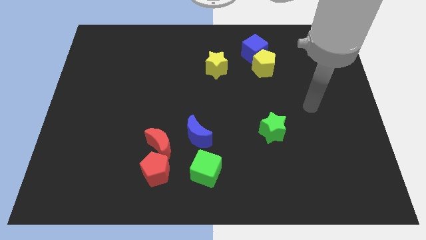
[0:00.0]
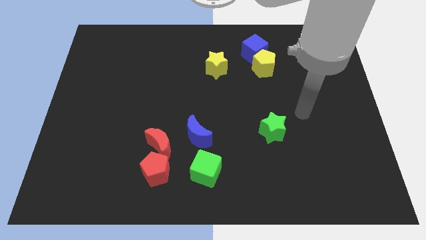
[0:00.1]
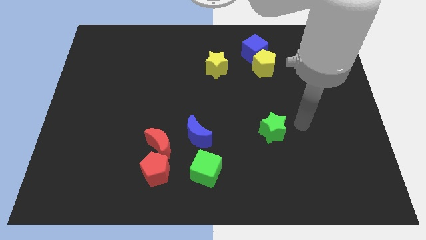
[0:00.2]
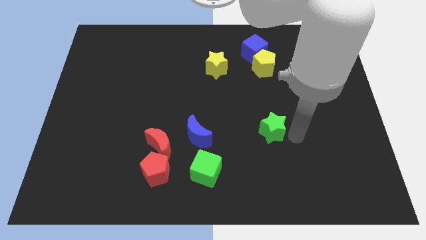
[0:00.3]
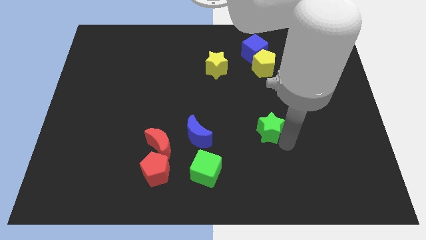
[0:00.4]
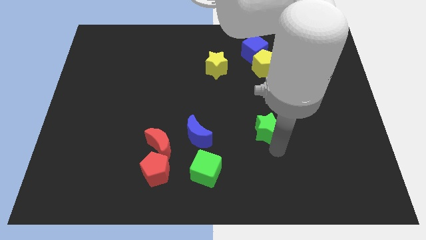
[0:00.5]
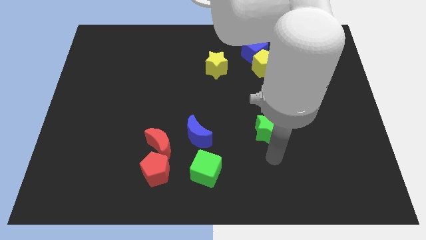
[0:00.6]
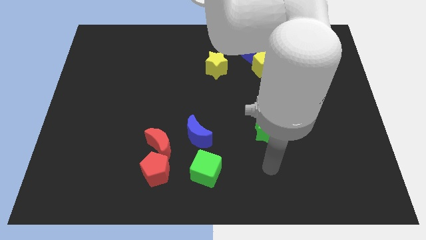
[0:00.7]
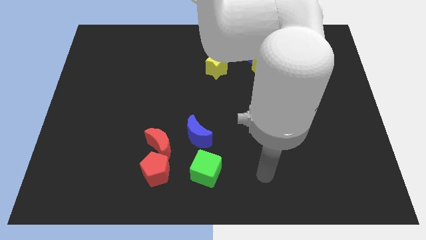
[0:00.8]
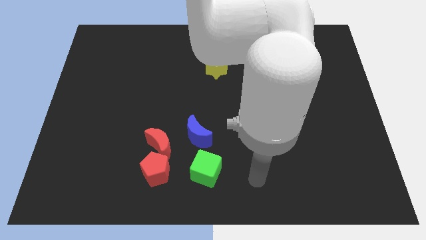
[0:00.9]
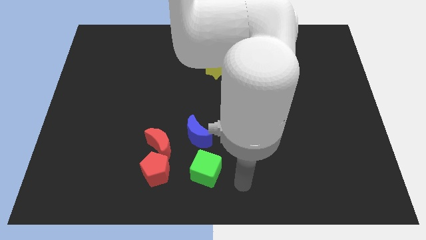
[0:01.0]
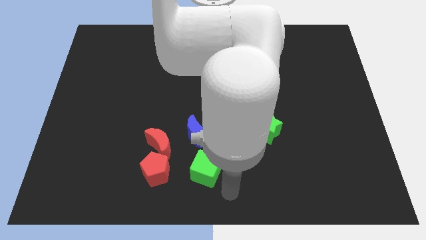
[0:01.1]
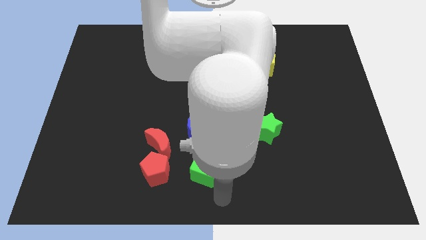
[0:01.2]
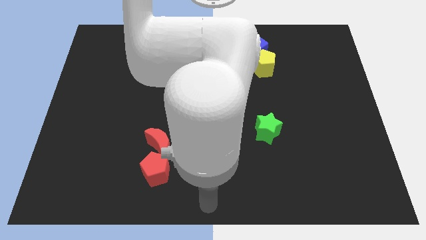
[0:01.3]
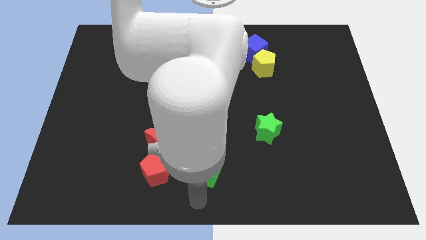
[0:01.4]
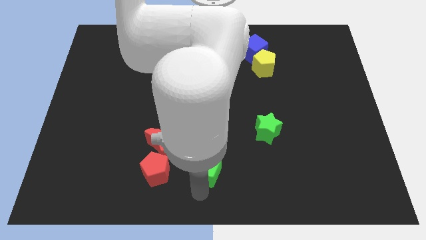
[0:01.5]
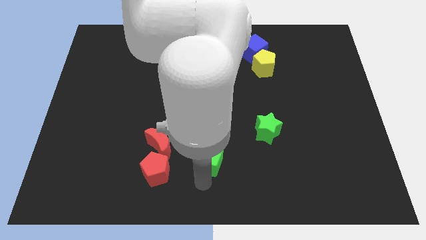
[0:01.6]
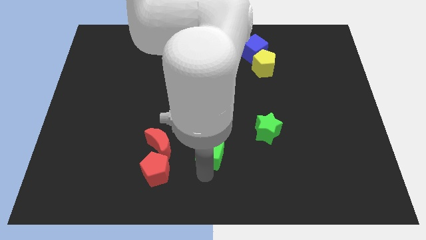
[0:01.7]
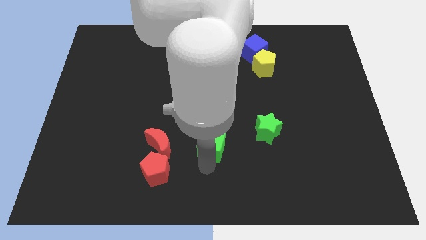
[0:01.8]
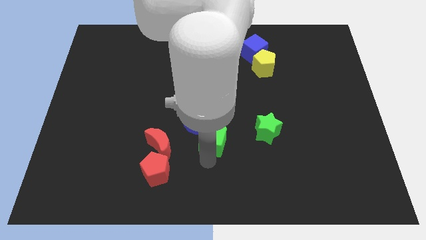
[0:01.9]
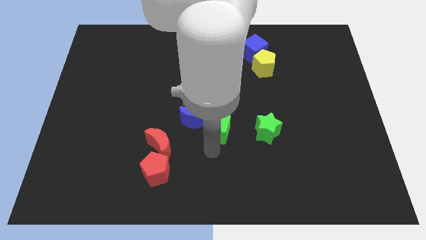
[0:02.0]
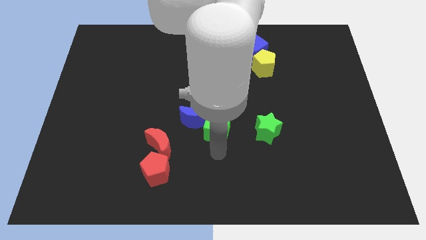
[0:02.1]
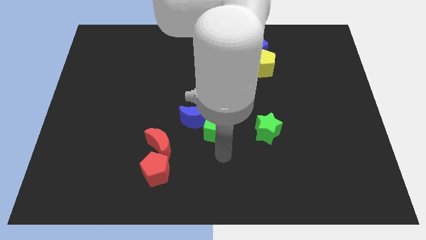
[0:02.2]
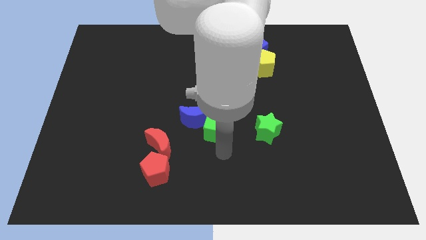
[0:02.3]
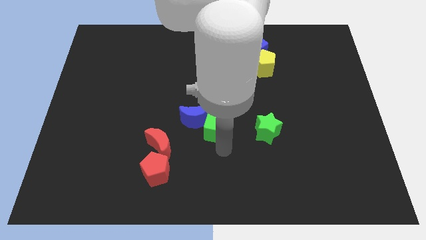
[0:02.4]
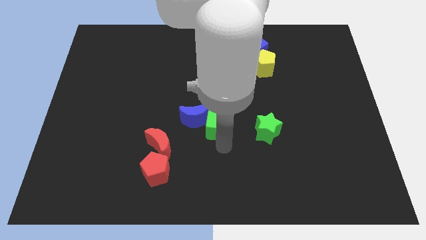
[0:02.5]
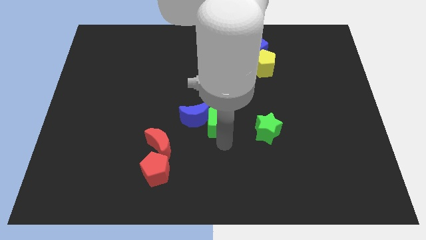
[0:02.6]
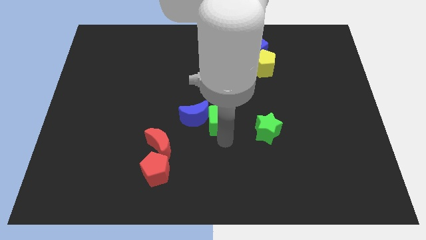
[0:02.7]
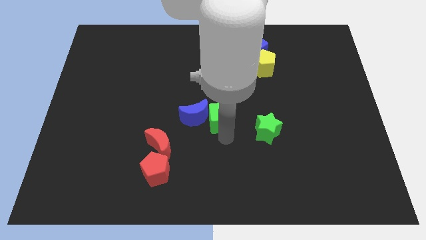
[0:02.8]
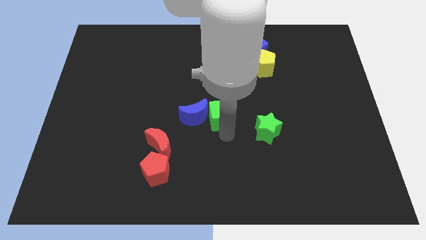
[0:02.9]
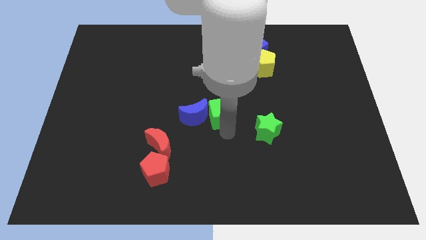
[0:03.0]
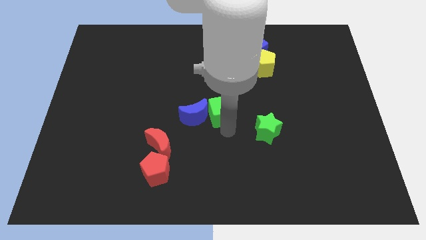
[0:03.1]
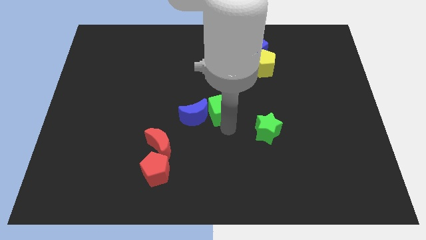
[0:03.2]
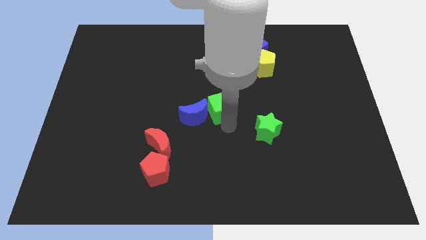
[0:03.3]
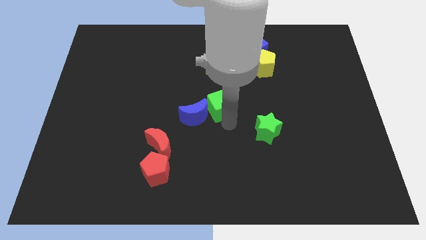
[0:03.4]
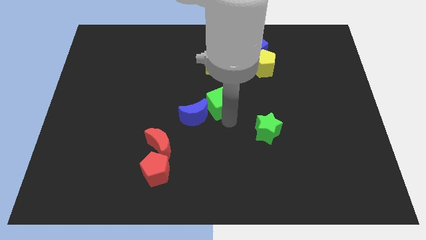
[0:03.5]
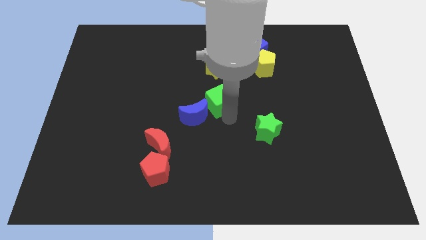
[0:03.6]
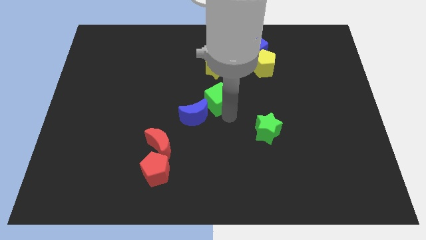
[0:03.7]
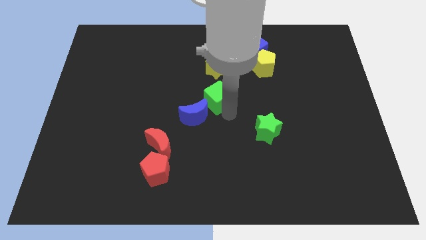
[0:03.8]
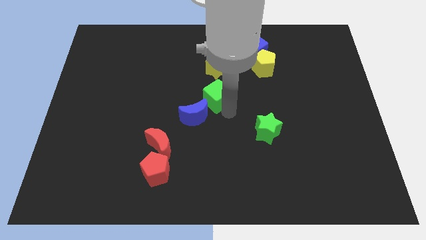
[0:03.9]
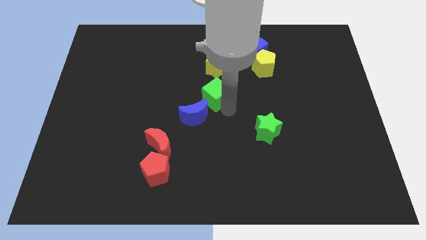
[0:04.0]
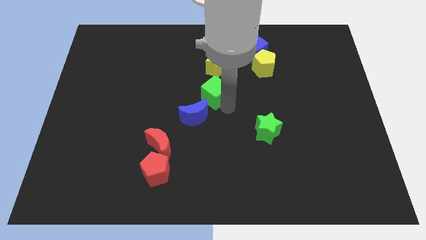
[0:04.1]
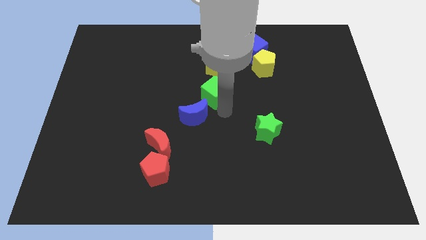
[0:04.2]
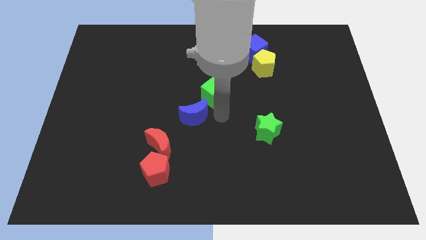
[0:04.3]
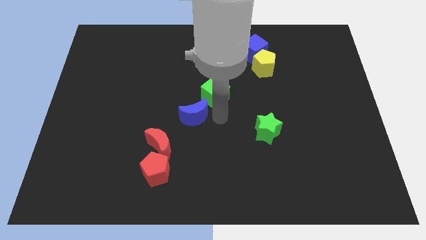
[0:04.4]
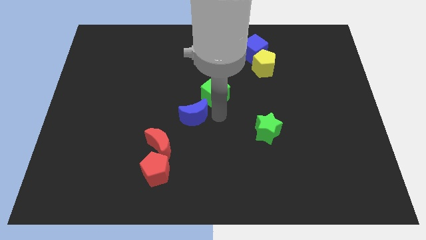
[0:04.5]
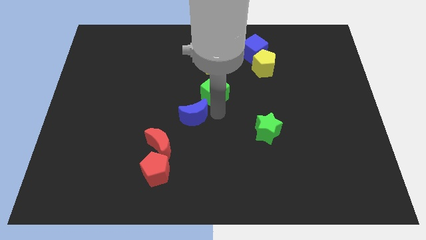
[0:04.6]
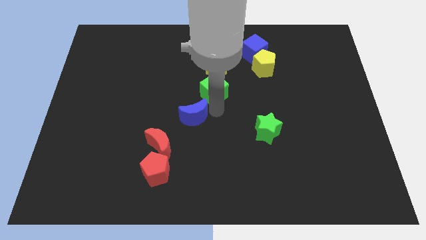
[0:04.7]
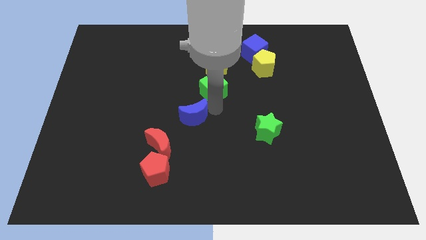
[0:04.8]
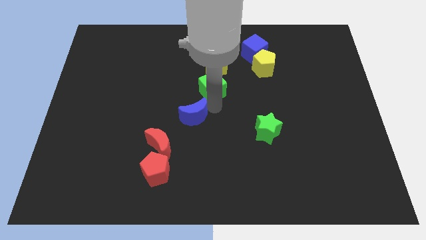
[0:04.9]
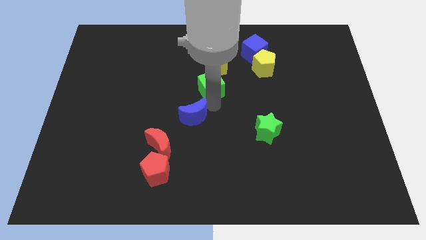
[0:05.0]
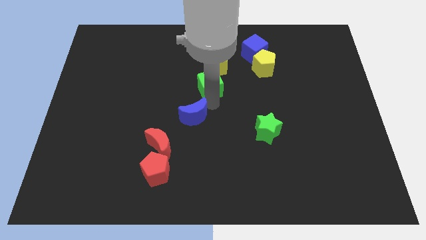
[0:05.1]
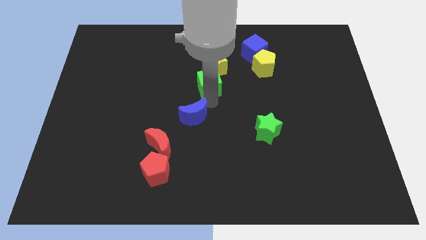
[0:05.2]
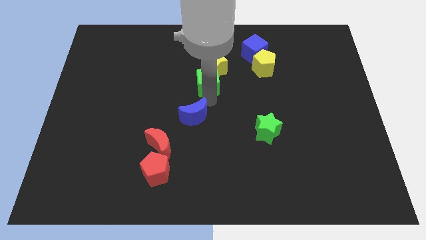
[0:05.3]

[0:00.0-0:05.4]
put the green cube towards the yellow star
